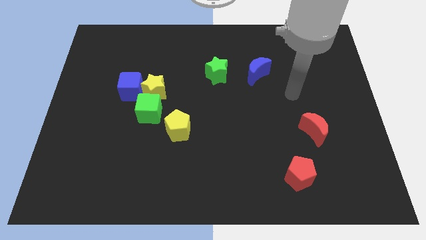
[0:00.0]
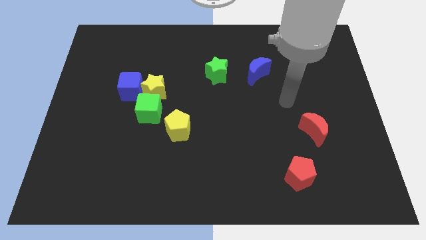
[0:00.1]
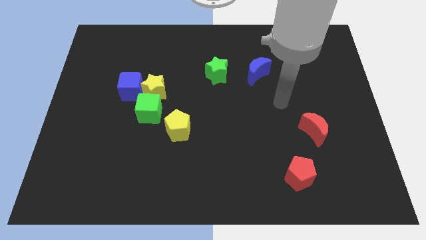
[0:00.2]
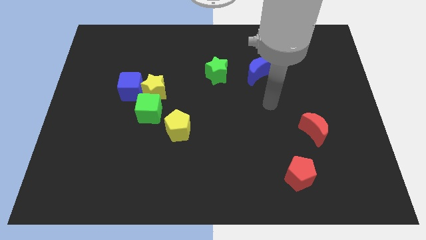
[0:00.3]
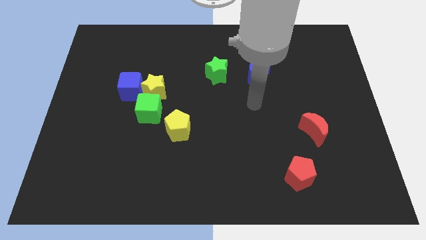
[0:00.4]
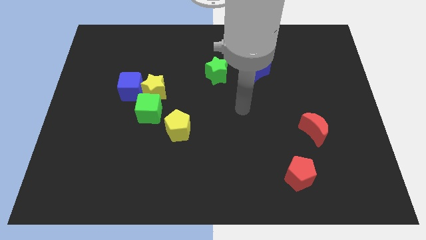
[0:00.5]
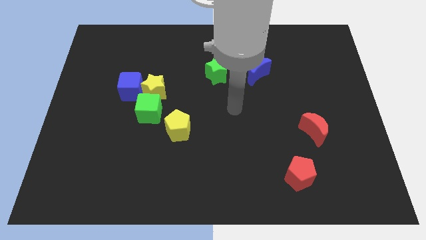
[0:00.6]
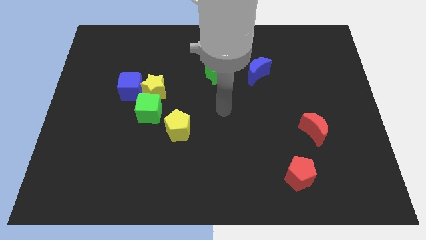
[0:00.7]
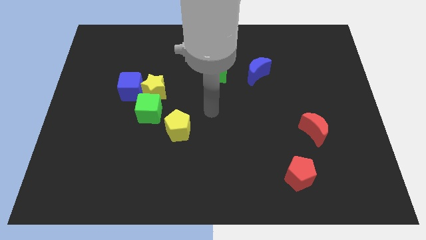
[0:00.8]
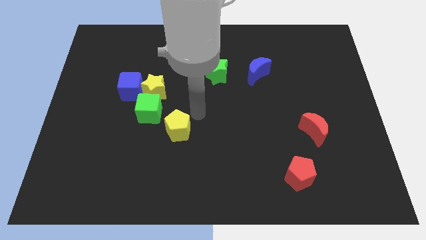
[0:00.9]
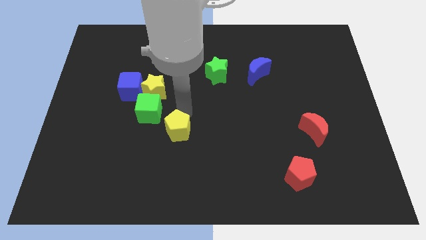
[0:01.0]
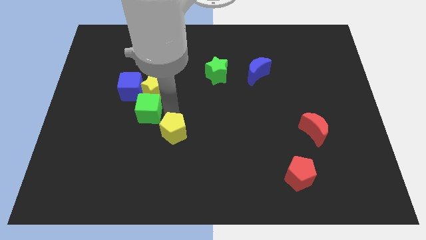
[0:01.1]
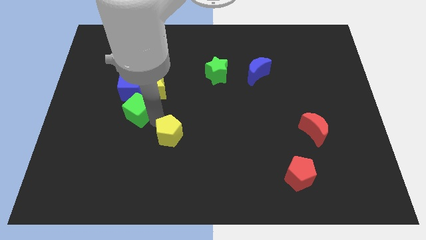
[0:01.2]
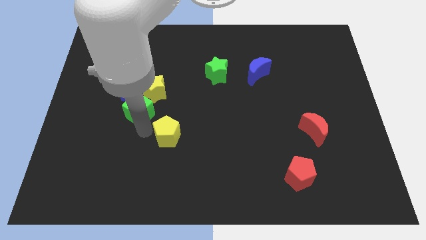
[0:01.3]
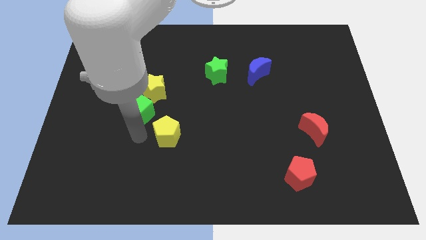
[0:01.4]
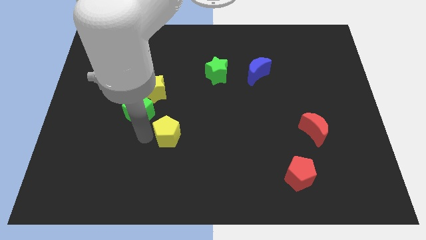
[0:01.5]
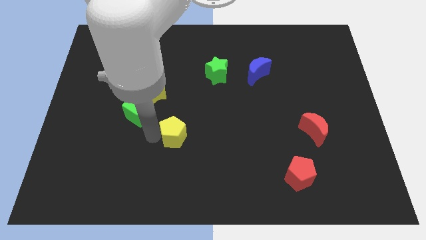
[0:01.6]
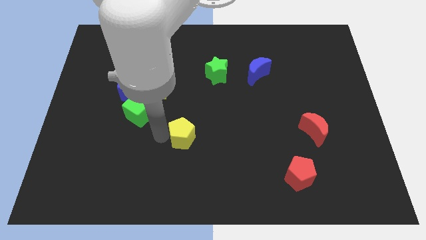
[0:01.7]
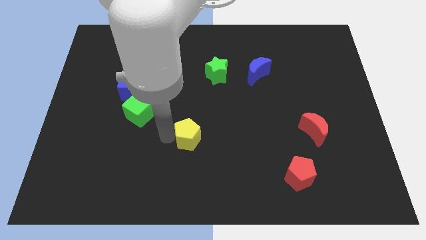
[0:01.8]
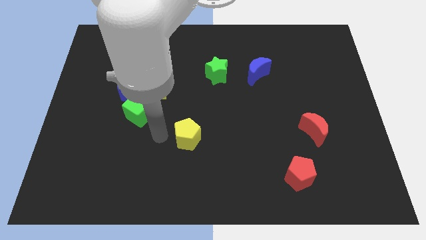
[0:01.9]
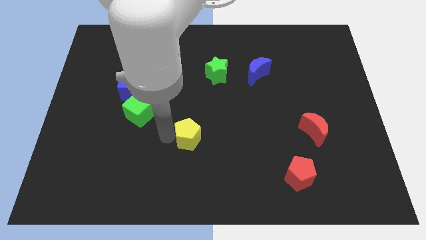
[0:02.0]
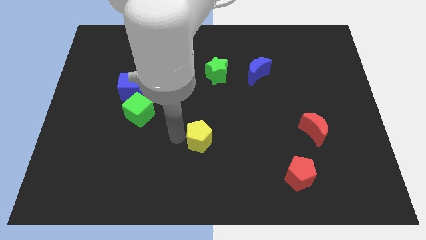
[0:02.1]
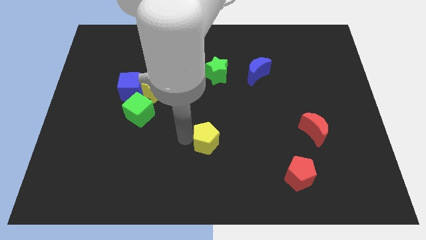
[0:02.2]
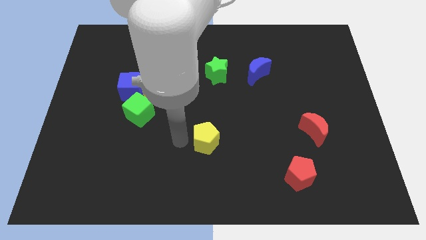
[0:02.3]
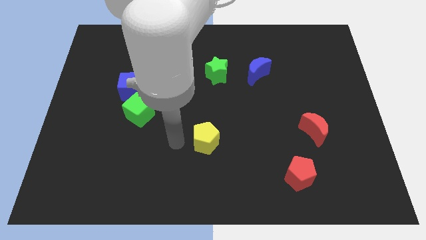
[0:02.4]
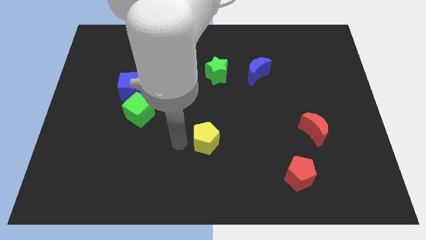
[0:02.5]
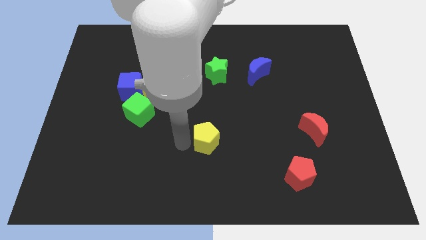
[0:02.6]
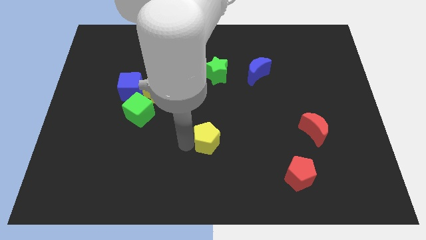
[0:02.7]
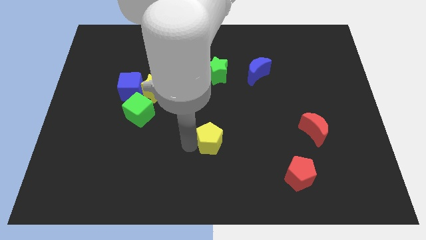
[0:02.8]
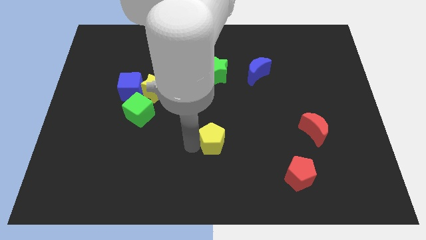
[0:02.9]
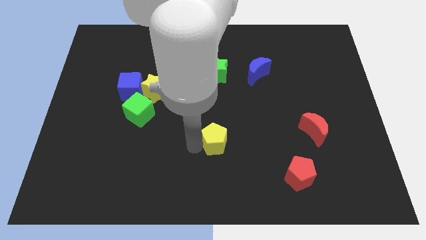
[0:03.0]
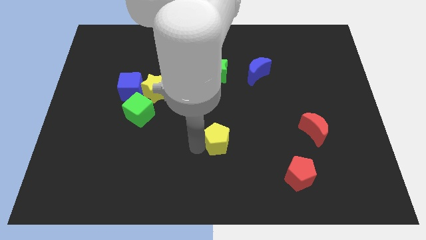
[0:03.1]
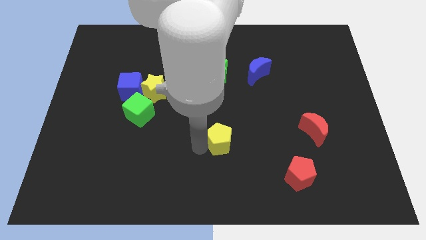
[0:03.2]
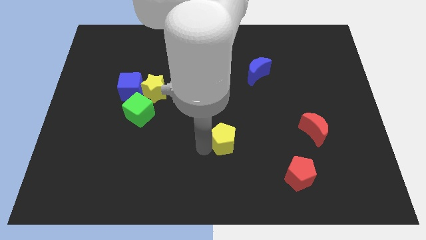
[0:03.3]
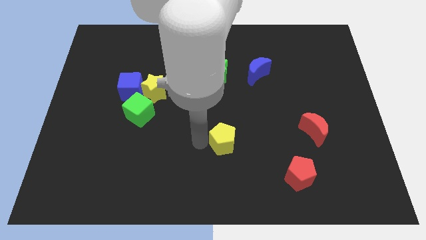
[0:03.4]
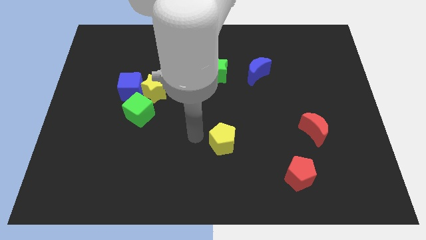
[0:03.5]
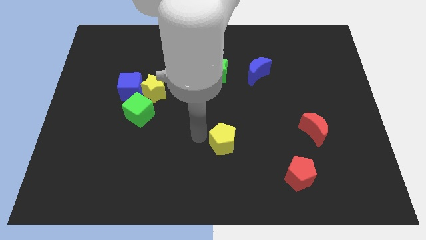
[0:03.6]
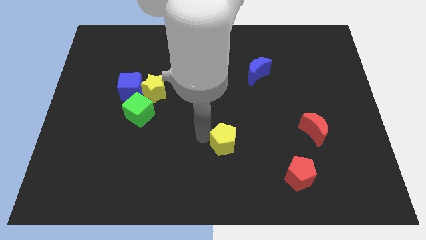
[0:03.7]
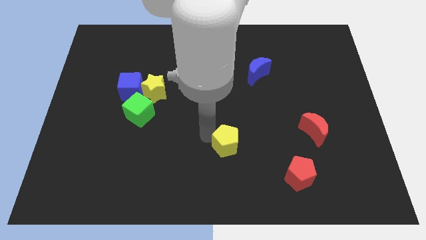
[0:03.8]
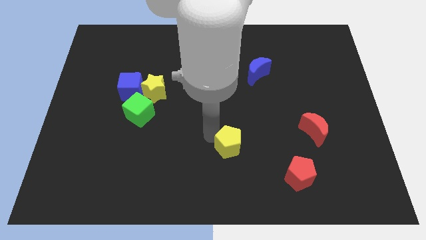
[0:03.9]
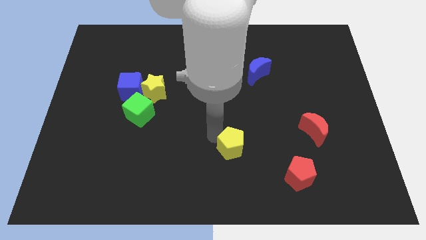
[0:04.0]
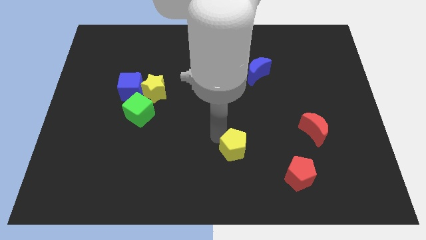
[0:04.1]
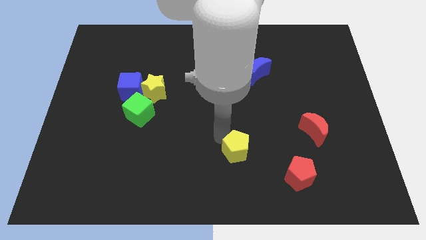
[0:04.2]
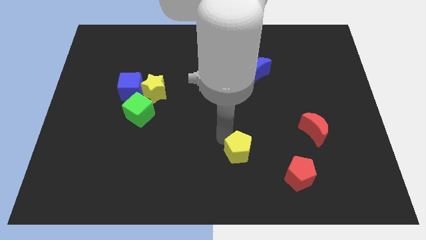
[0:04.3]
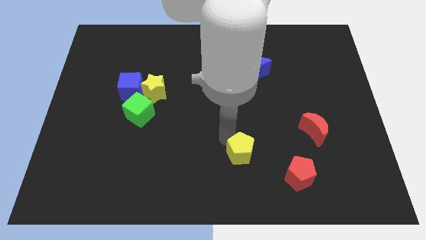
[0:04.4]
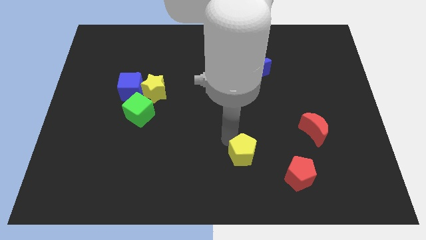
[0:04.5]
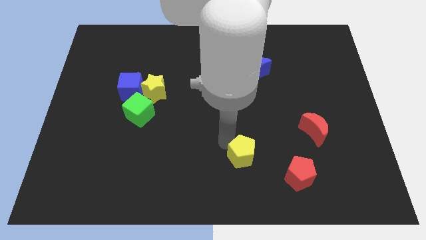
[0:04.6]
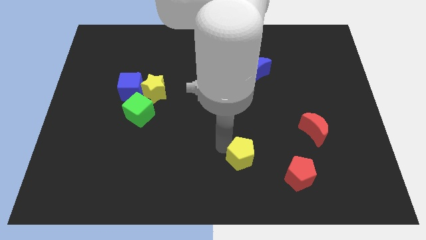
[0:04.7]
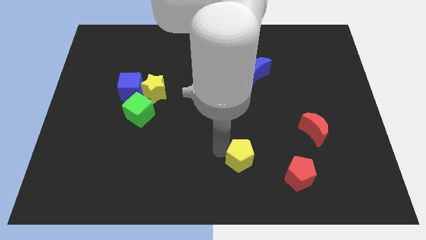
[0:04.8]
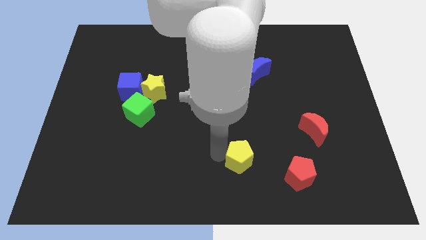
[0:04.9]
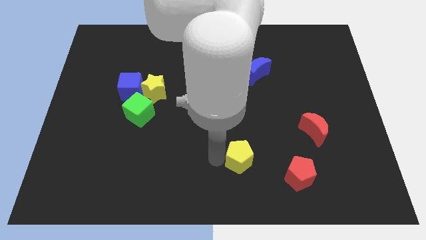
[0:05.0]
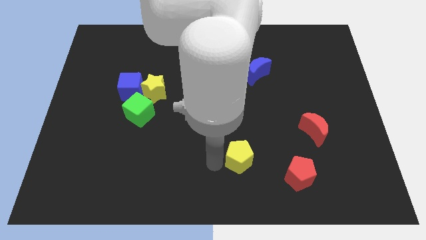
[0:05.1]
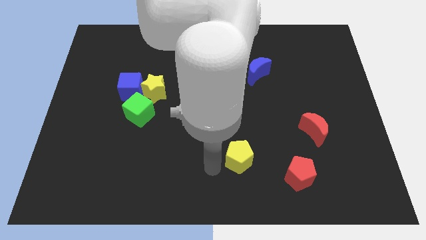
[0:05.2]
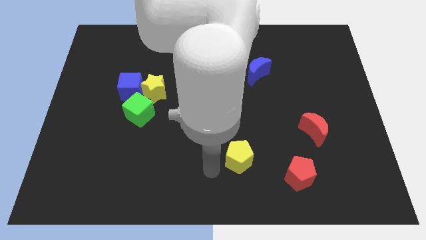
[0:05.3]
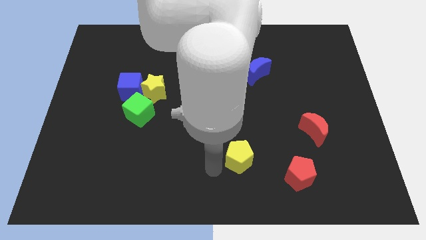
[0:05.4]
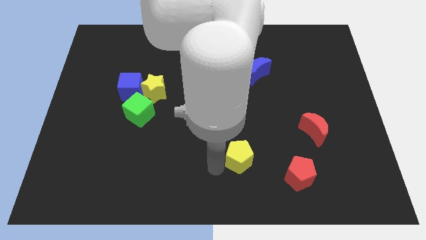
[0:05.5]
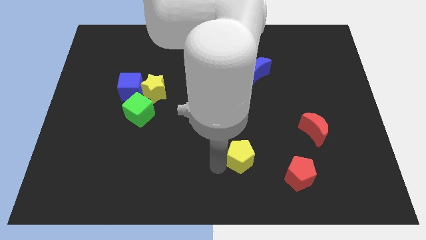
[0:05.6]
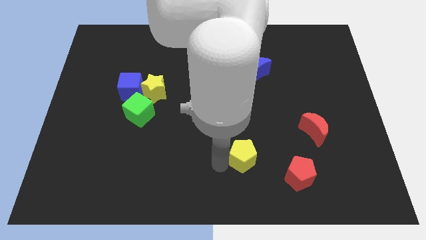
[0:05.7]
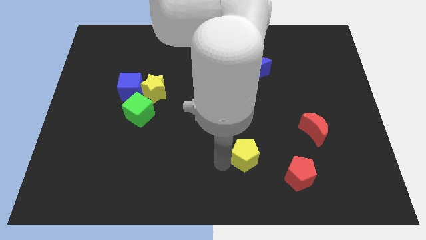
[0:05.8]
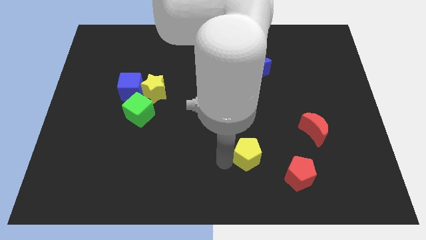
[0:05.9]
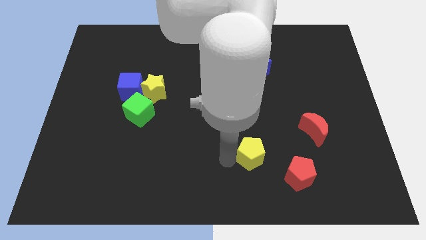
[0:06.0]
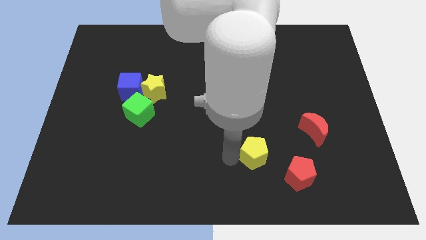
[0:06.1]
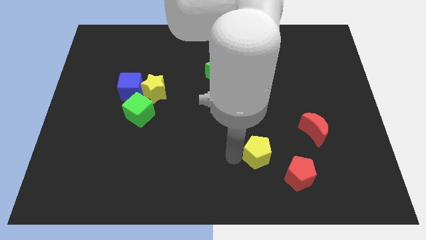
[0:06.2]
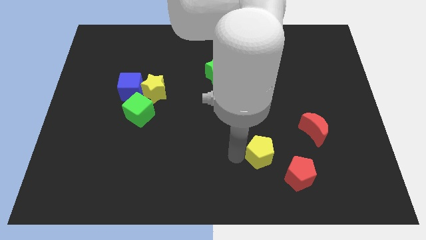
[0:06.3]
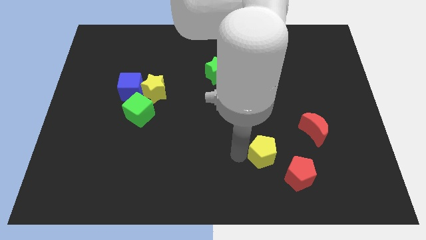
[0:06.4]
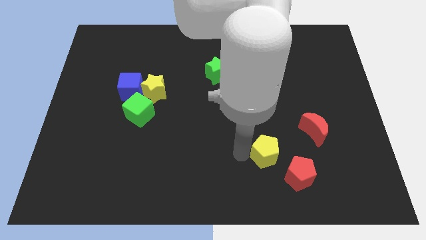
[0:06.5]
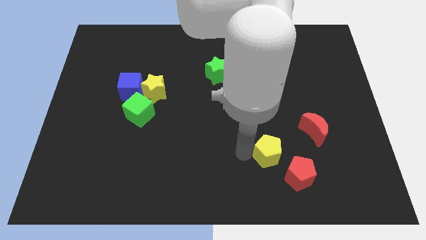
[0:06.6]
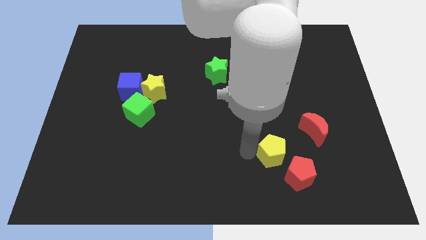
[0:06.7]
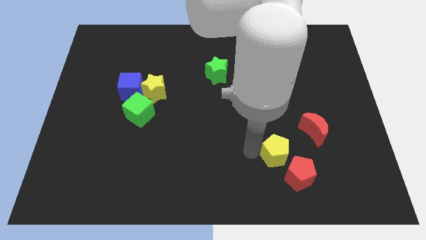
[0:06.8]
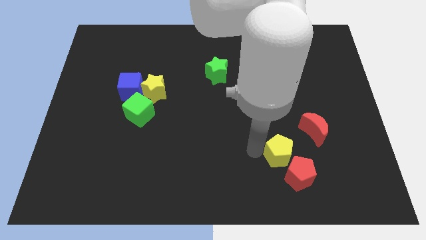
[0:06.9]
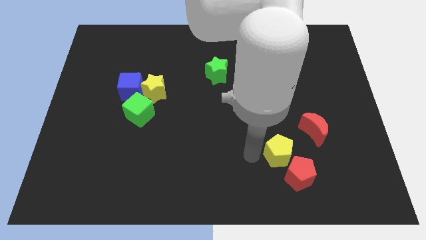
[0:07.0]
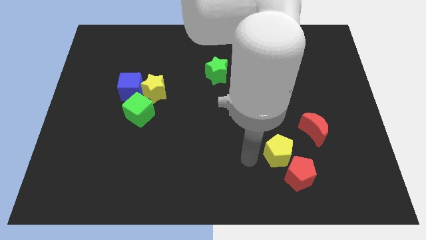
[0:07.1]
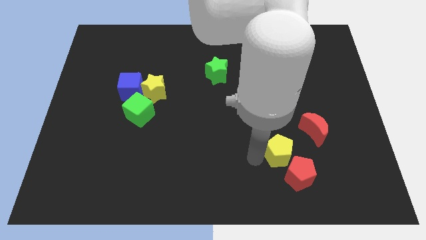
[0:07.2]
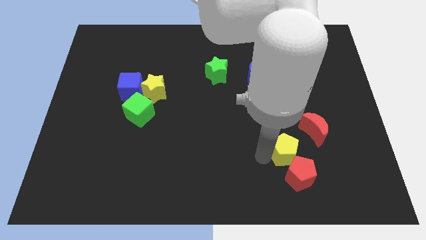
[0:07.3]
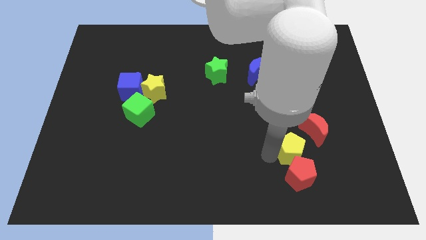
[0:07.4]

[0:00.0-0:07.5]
slide the yellow pentagon diagonally up and to the right of the red pentagon

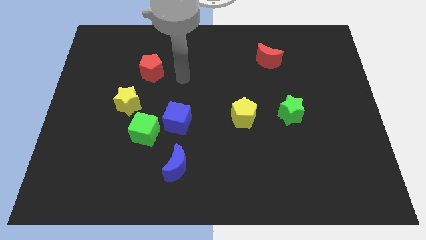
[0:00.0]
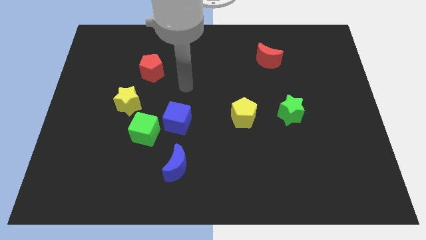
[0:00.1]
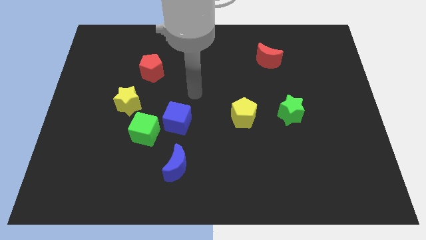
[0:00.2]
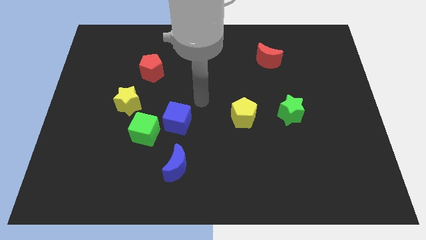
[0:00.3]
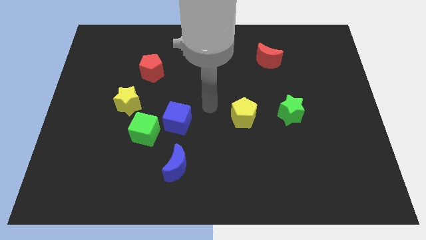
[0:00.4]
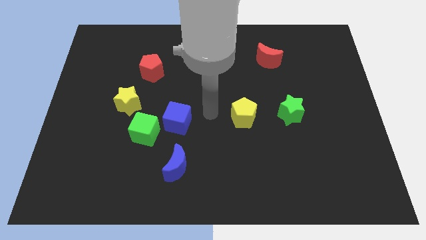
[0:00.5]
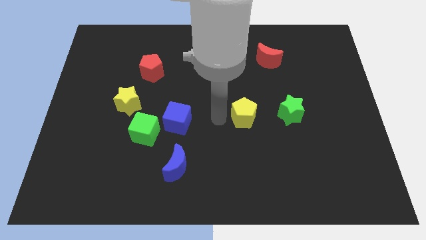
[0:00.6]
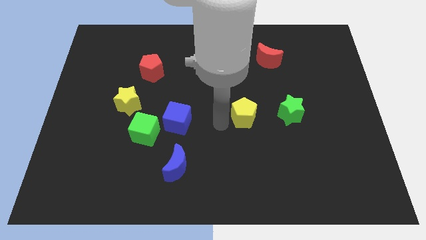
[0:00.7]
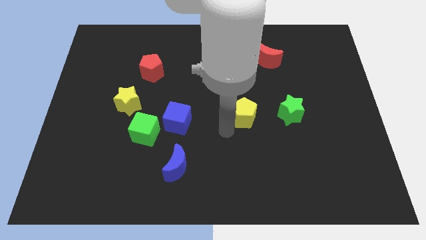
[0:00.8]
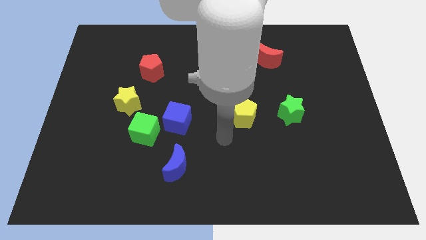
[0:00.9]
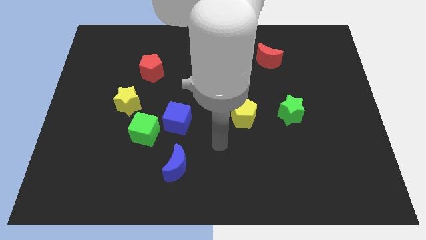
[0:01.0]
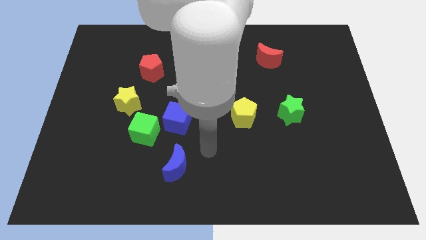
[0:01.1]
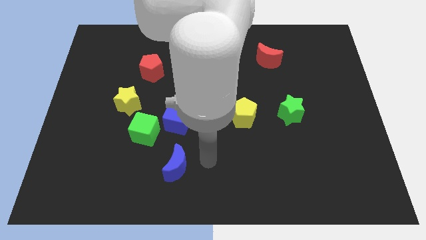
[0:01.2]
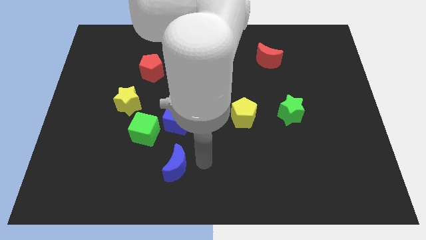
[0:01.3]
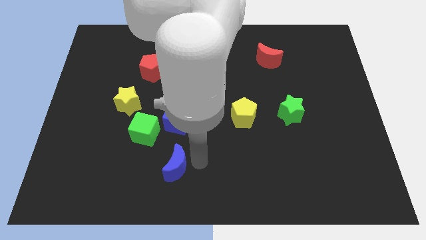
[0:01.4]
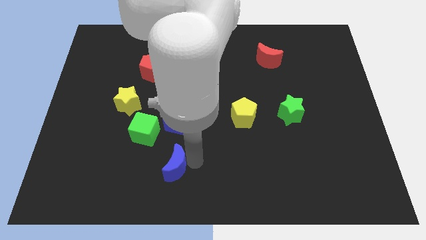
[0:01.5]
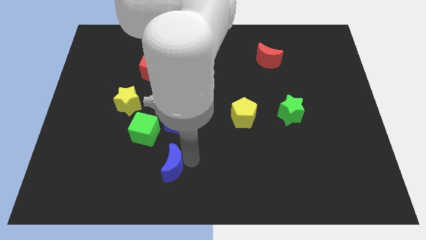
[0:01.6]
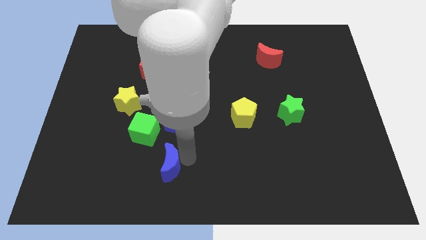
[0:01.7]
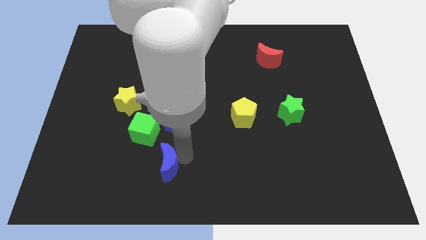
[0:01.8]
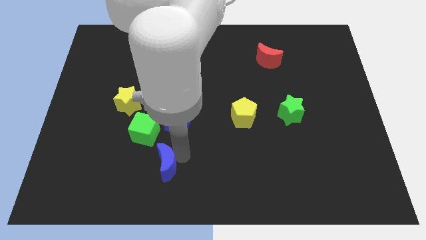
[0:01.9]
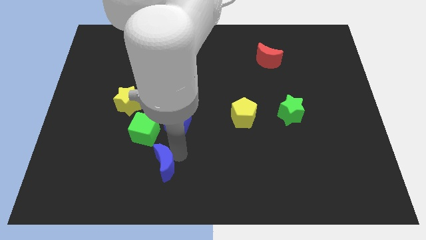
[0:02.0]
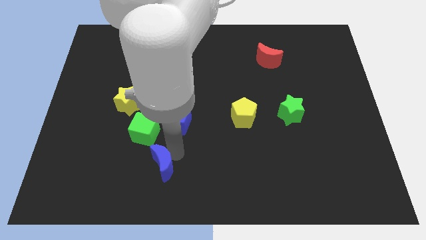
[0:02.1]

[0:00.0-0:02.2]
move the blue moon to the bottom of the green cube
